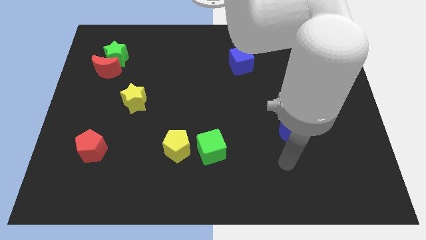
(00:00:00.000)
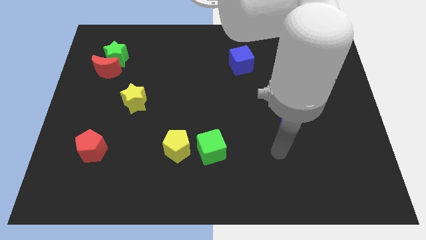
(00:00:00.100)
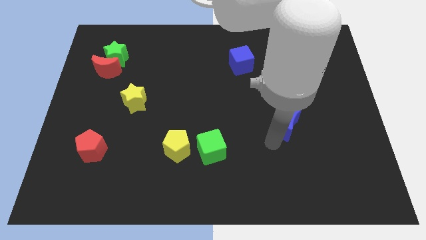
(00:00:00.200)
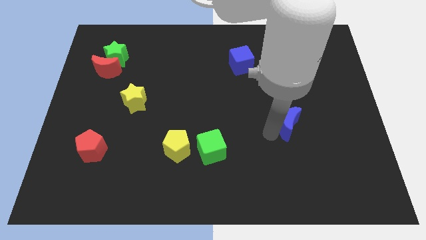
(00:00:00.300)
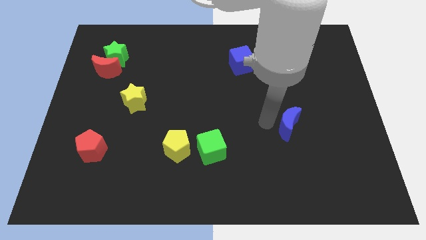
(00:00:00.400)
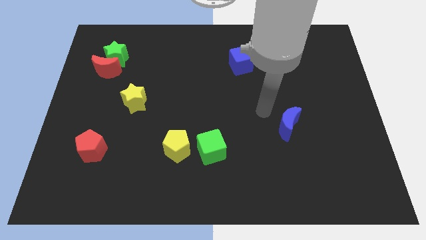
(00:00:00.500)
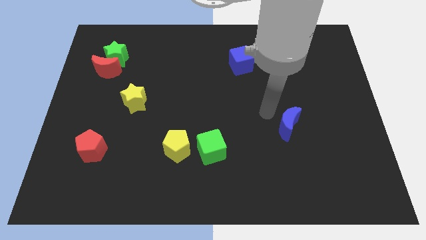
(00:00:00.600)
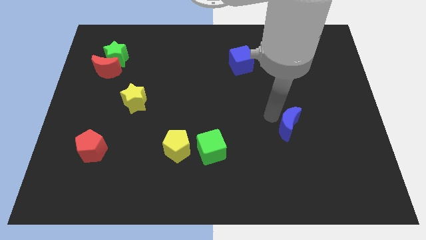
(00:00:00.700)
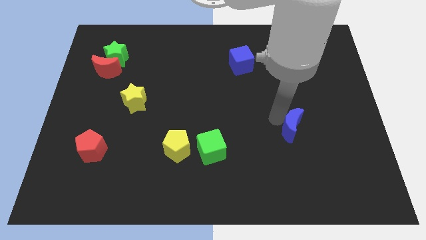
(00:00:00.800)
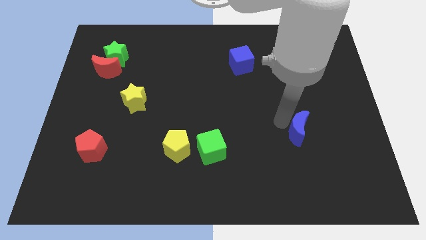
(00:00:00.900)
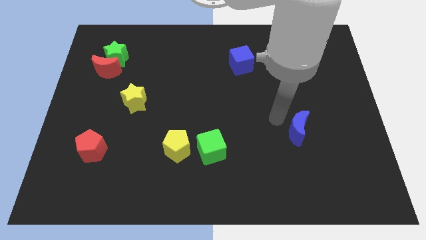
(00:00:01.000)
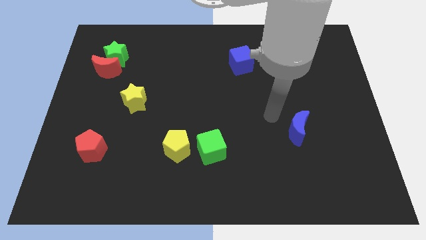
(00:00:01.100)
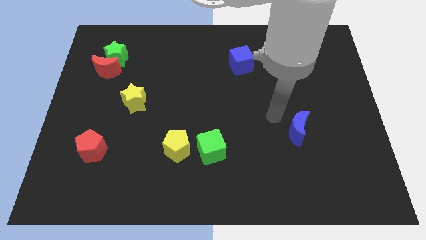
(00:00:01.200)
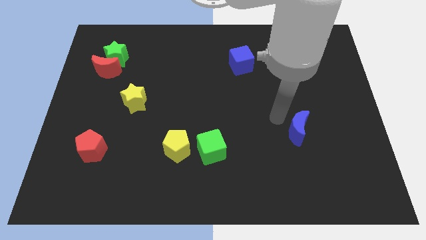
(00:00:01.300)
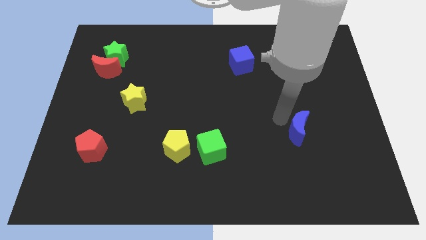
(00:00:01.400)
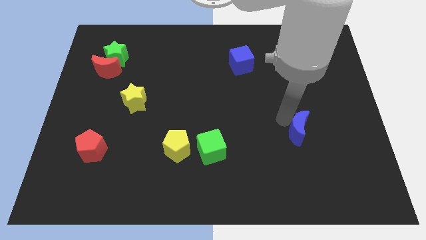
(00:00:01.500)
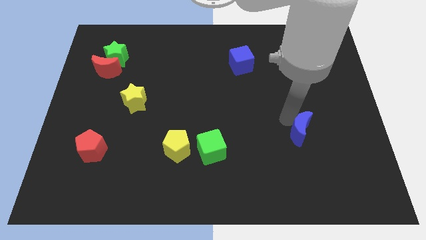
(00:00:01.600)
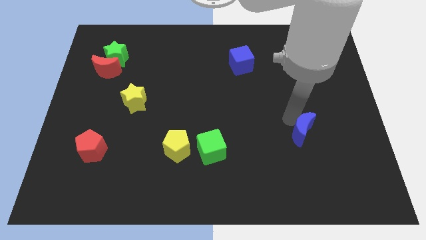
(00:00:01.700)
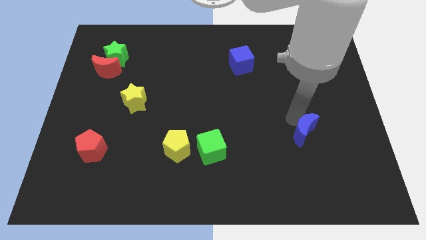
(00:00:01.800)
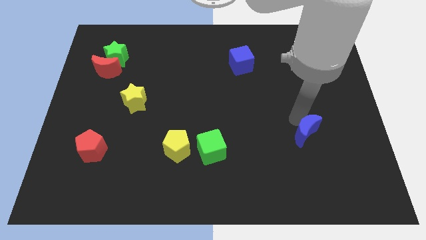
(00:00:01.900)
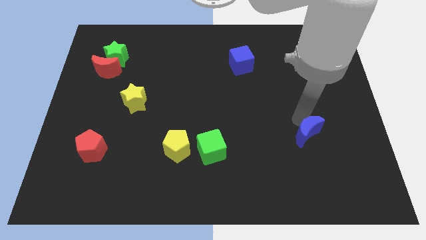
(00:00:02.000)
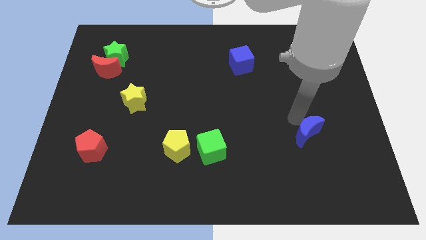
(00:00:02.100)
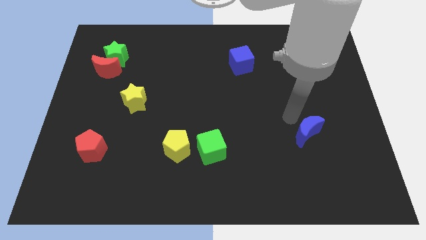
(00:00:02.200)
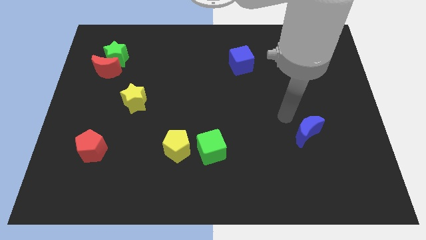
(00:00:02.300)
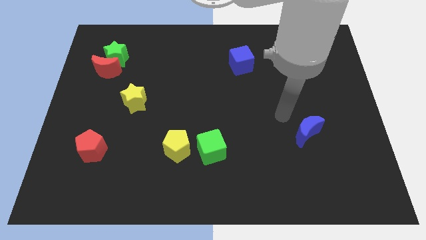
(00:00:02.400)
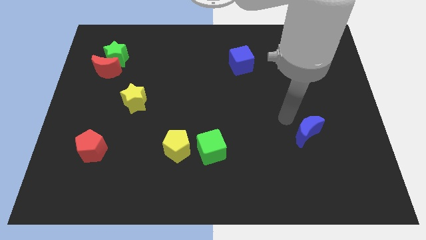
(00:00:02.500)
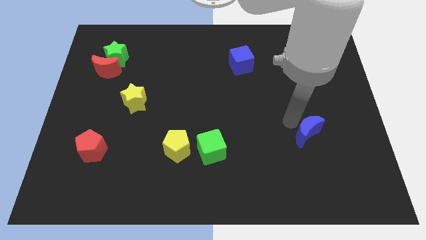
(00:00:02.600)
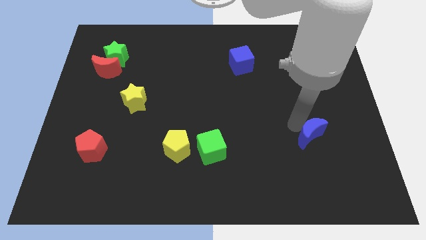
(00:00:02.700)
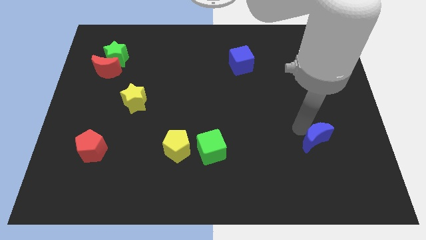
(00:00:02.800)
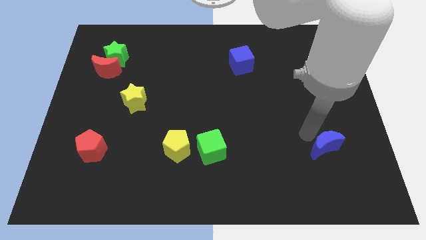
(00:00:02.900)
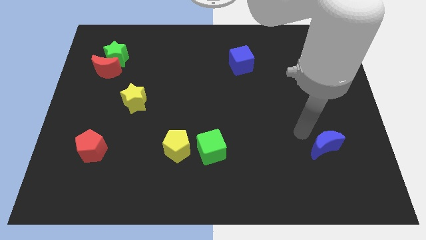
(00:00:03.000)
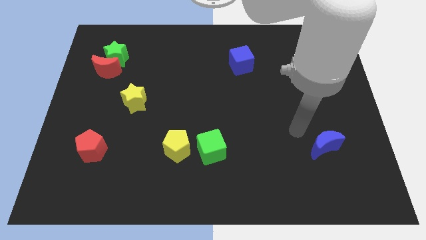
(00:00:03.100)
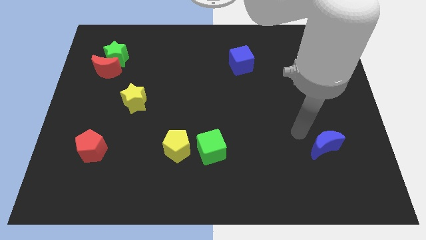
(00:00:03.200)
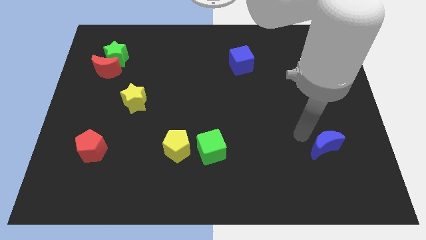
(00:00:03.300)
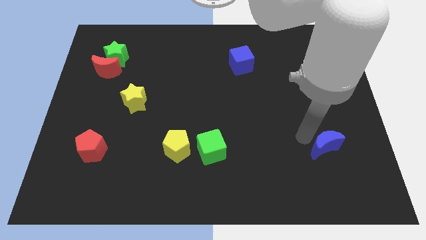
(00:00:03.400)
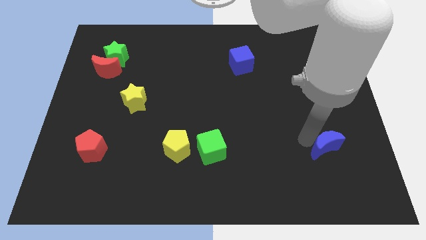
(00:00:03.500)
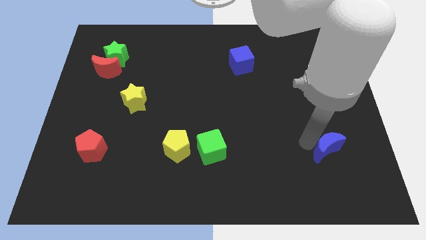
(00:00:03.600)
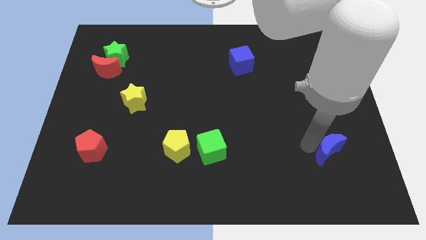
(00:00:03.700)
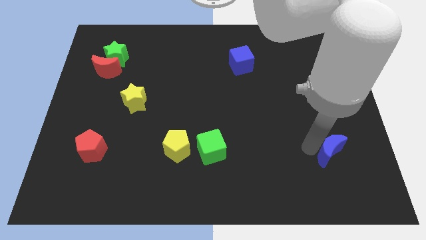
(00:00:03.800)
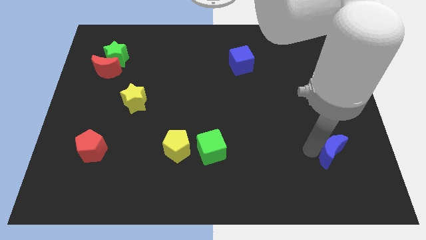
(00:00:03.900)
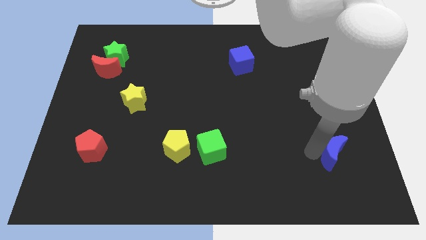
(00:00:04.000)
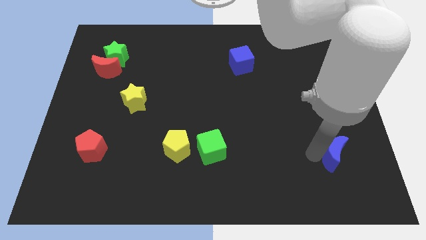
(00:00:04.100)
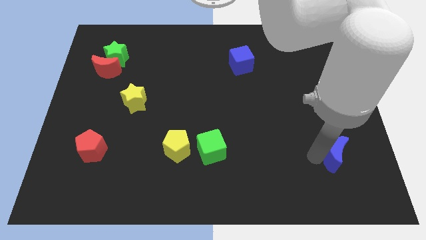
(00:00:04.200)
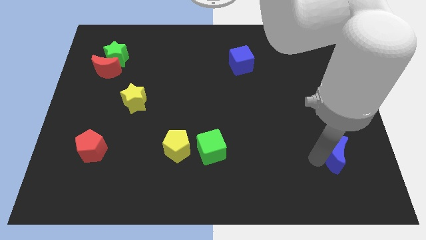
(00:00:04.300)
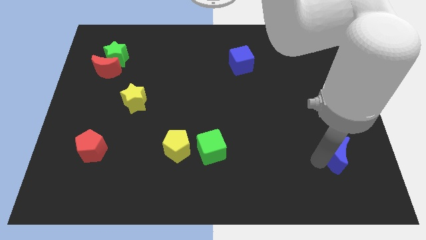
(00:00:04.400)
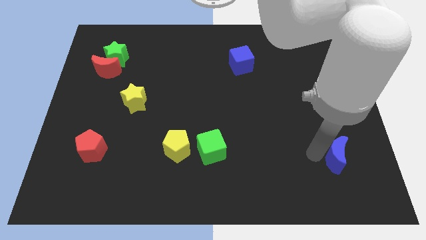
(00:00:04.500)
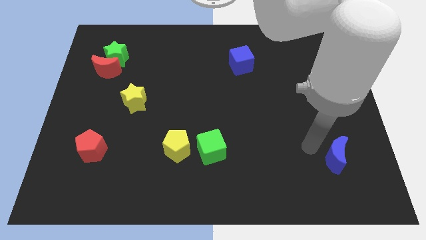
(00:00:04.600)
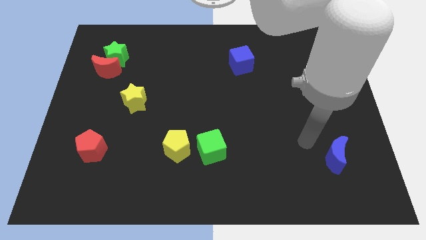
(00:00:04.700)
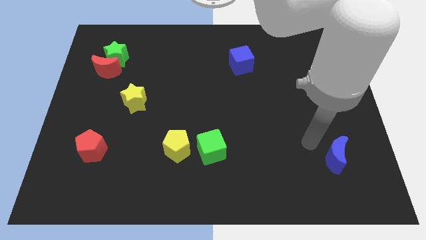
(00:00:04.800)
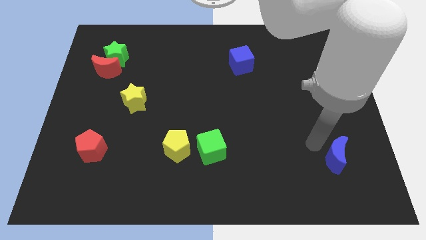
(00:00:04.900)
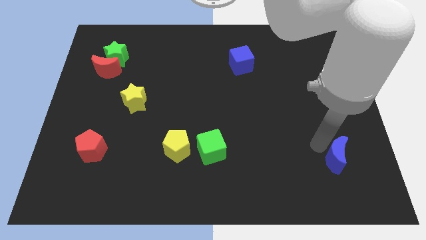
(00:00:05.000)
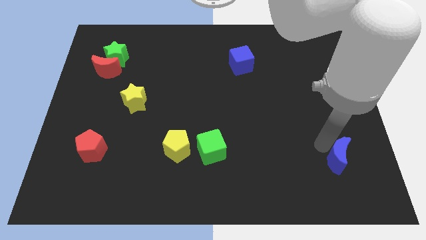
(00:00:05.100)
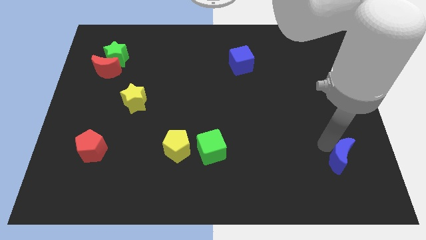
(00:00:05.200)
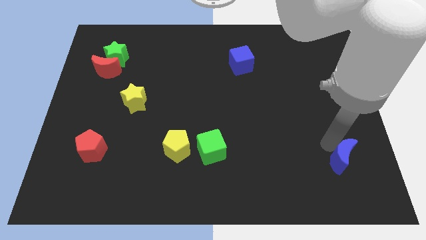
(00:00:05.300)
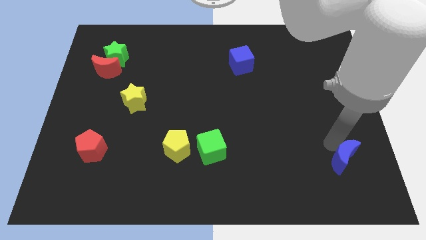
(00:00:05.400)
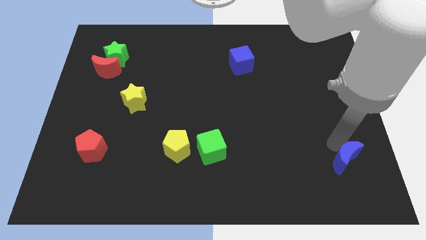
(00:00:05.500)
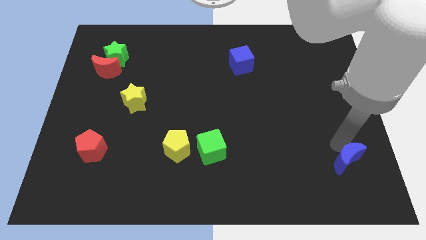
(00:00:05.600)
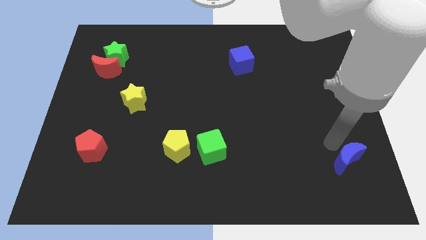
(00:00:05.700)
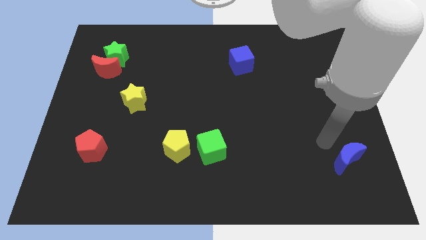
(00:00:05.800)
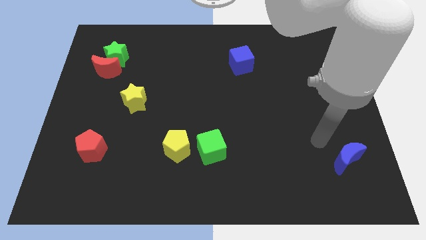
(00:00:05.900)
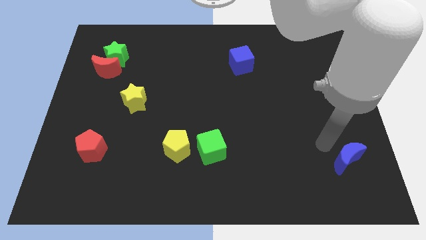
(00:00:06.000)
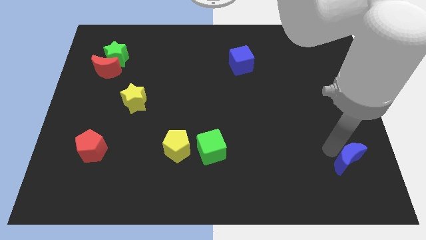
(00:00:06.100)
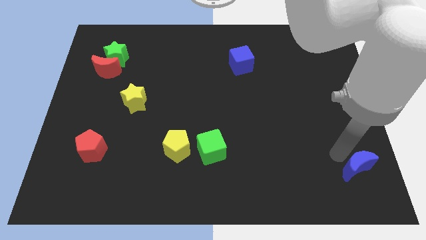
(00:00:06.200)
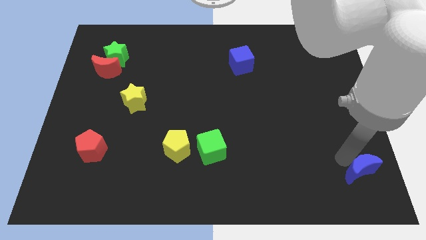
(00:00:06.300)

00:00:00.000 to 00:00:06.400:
slide the blue moon to the bottom right of the board
